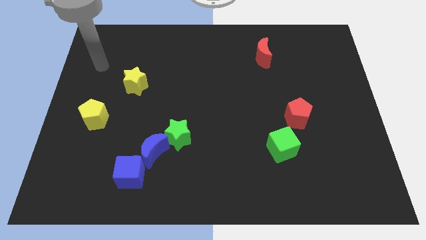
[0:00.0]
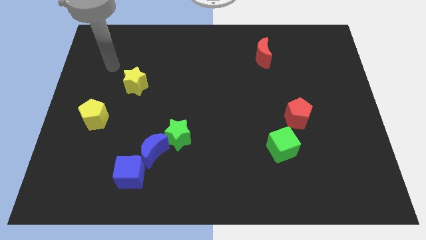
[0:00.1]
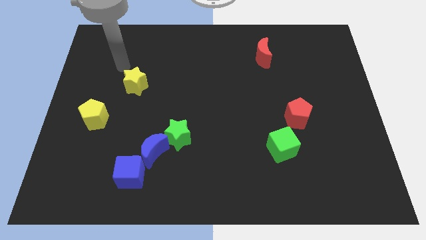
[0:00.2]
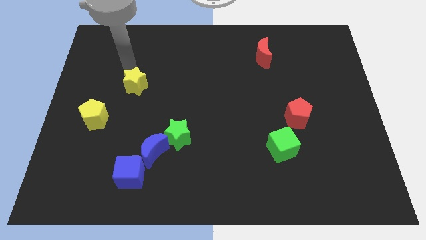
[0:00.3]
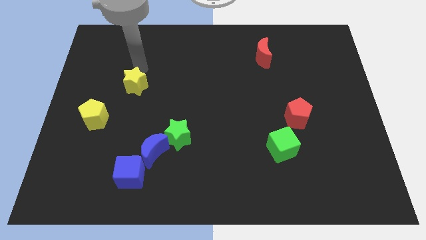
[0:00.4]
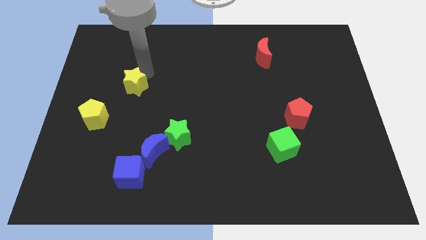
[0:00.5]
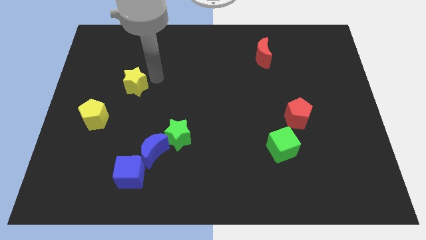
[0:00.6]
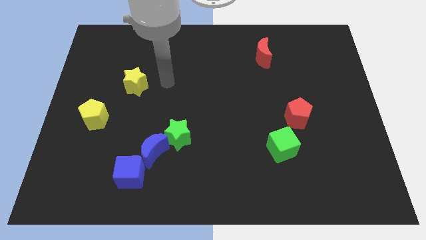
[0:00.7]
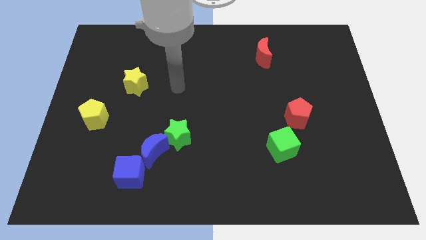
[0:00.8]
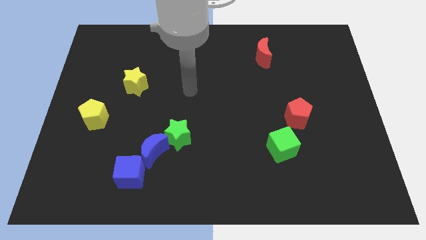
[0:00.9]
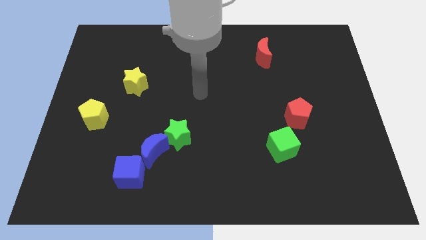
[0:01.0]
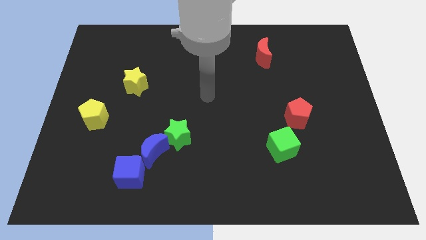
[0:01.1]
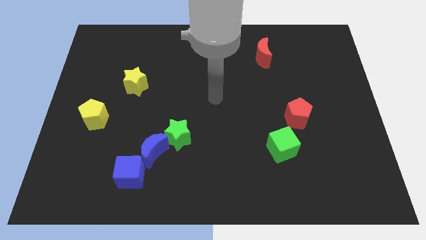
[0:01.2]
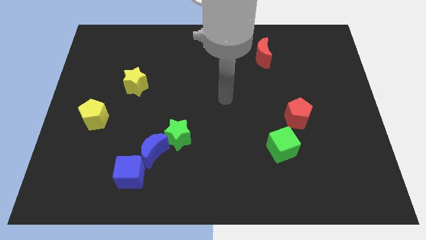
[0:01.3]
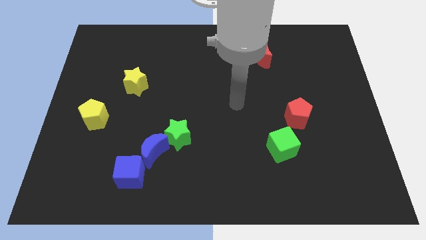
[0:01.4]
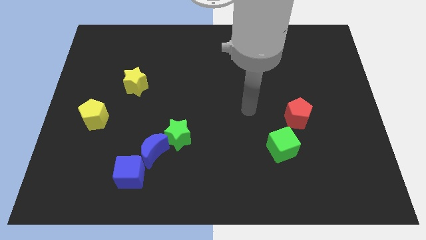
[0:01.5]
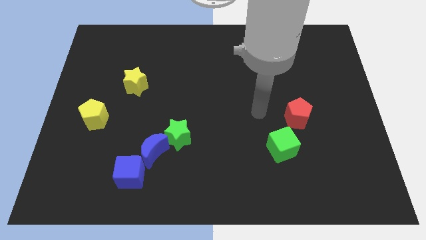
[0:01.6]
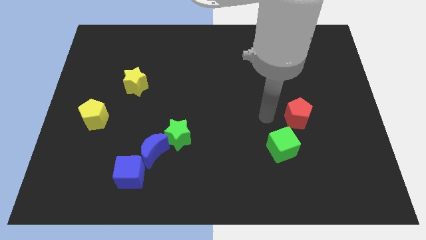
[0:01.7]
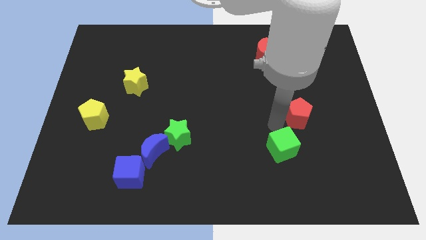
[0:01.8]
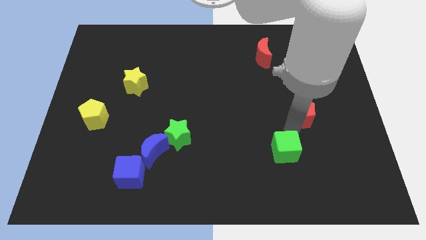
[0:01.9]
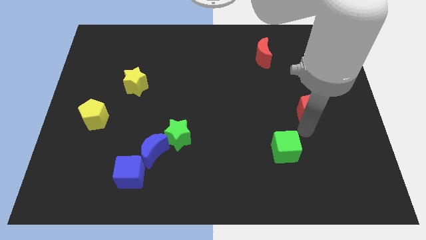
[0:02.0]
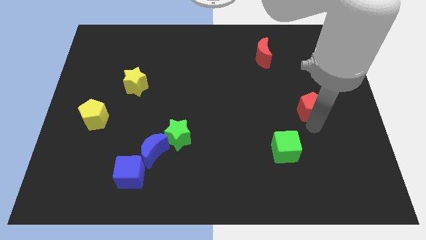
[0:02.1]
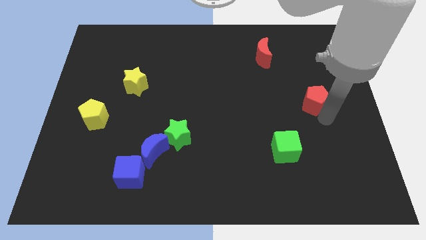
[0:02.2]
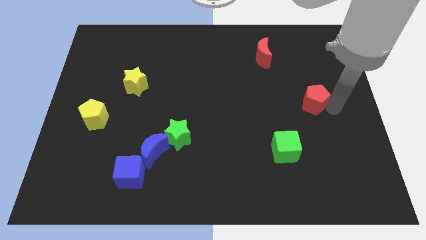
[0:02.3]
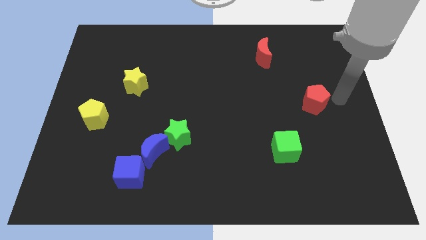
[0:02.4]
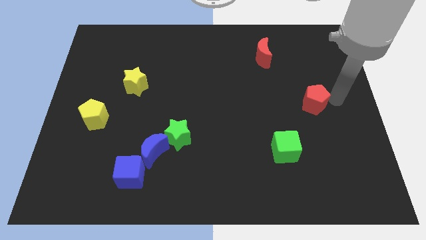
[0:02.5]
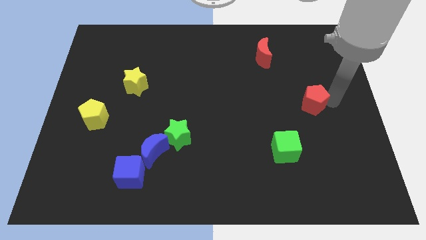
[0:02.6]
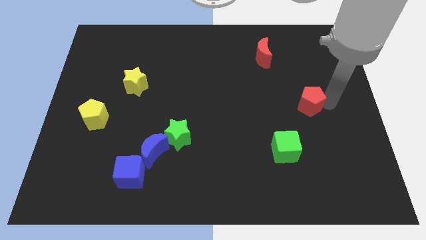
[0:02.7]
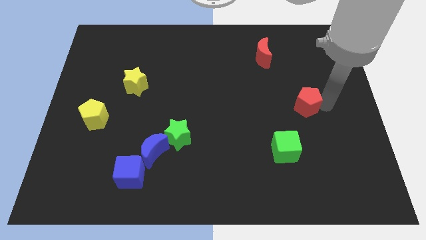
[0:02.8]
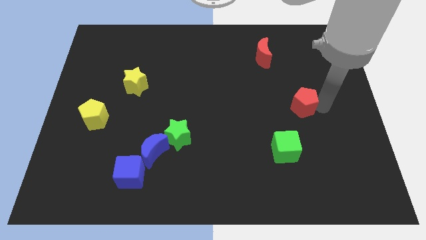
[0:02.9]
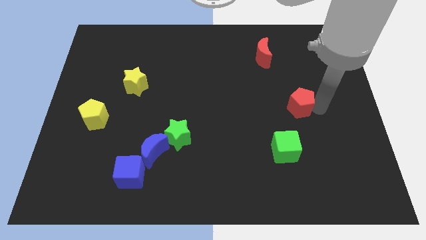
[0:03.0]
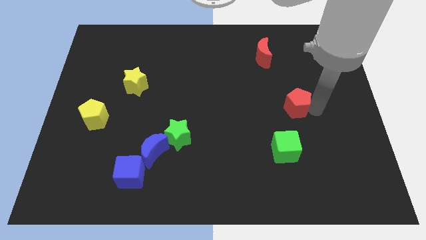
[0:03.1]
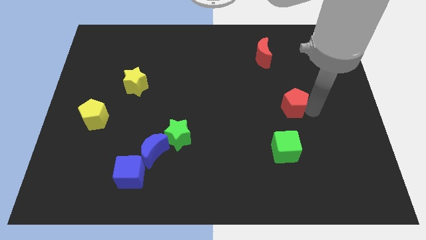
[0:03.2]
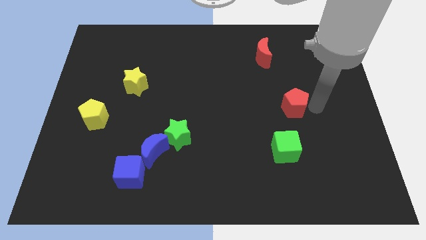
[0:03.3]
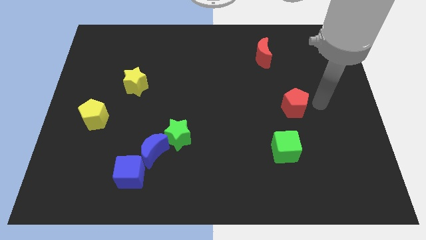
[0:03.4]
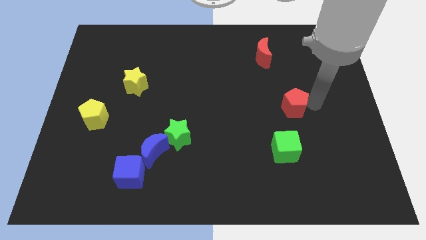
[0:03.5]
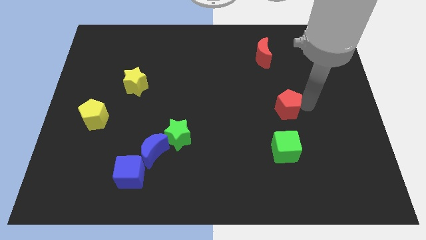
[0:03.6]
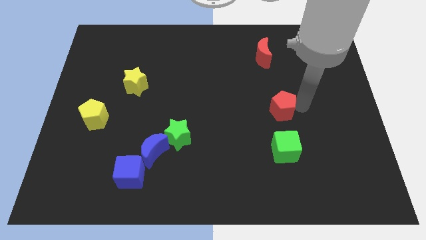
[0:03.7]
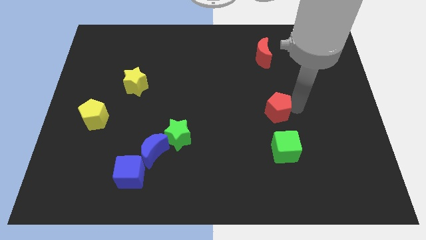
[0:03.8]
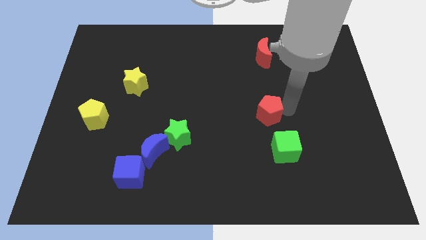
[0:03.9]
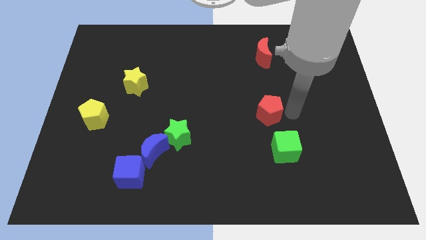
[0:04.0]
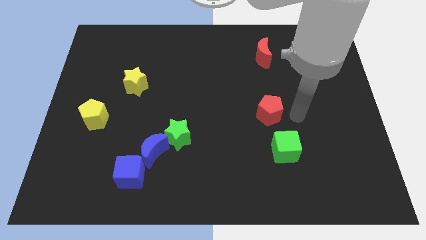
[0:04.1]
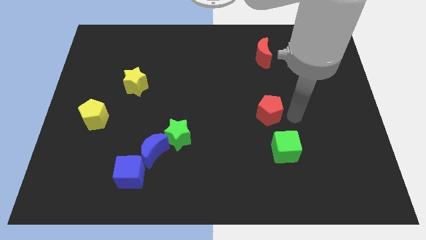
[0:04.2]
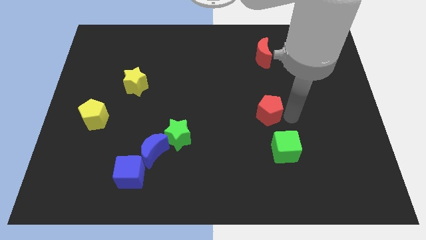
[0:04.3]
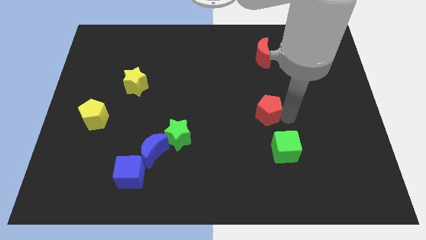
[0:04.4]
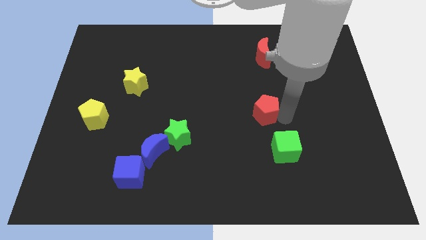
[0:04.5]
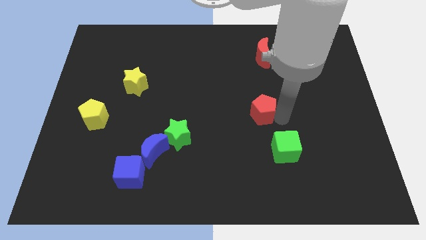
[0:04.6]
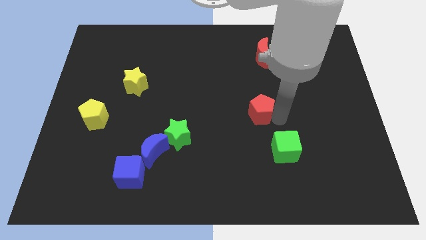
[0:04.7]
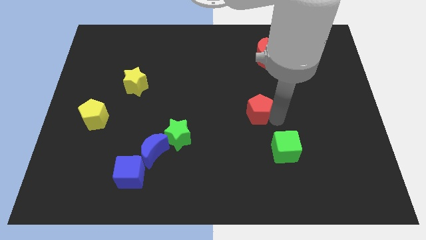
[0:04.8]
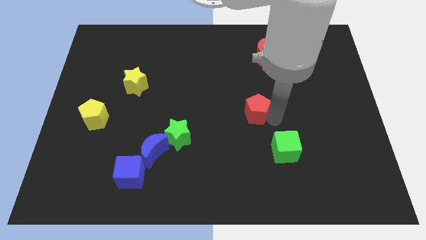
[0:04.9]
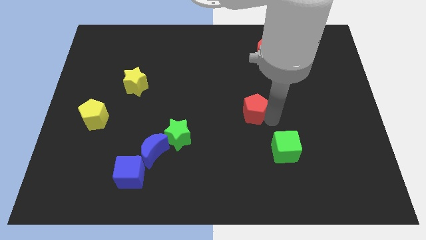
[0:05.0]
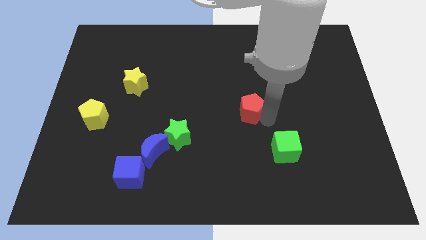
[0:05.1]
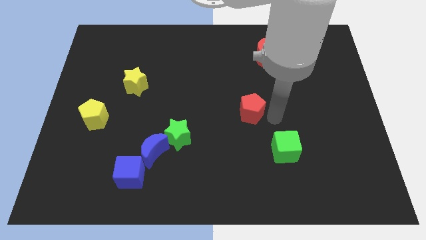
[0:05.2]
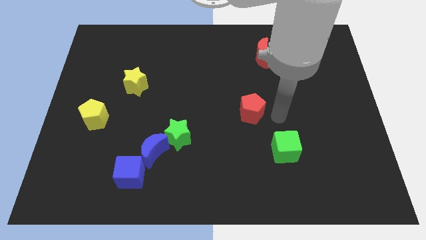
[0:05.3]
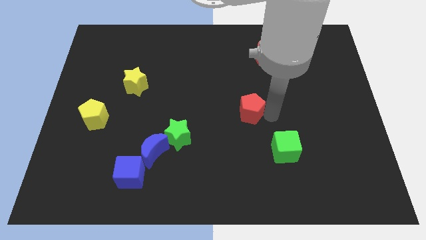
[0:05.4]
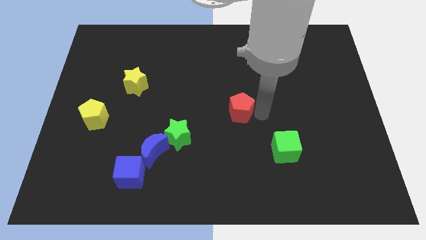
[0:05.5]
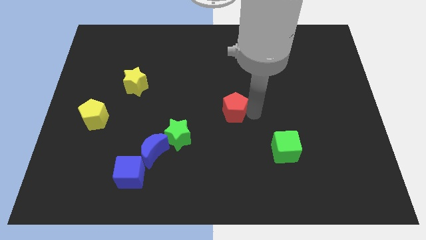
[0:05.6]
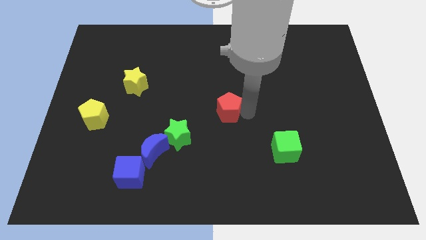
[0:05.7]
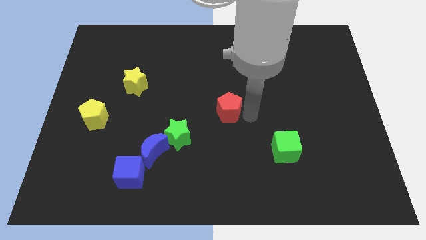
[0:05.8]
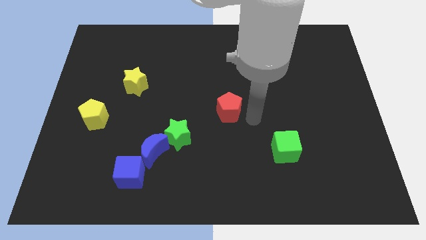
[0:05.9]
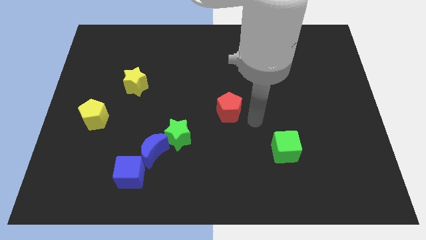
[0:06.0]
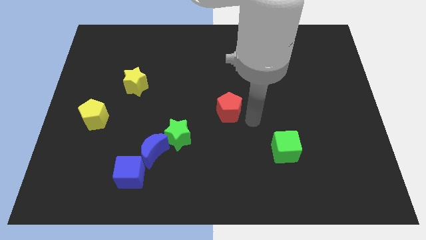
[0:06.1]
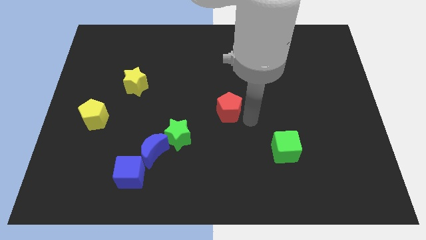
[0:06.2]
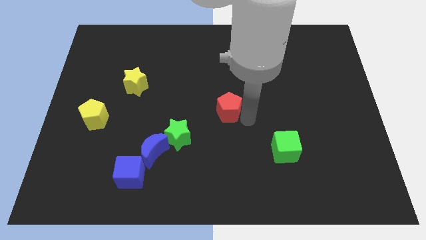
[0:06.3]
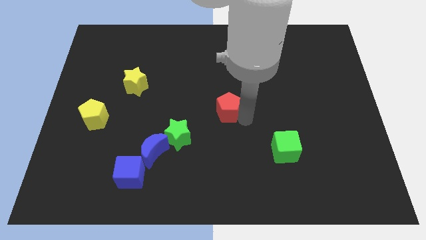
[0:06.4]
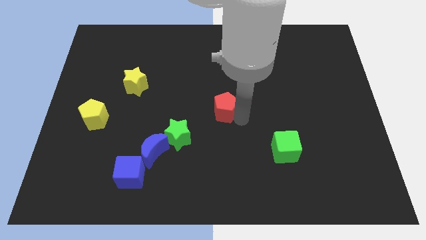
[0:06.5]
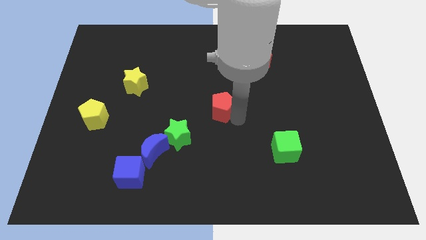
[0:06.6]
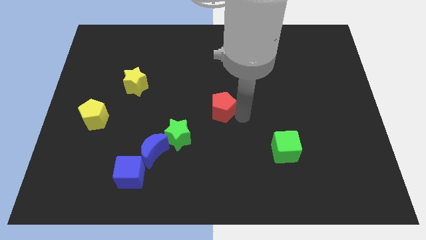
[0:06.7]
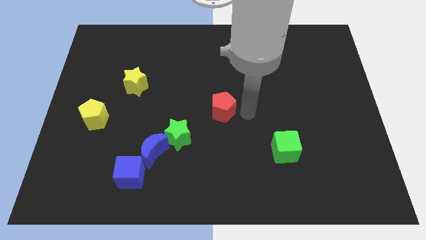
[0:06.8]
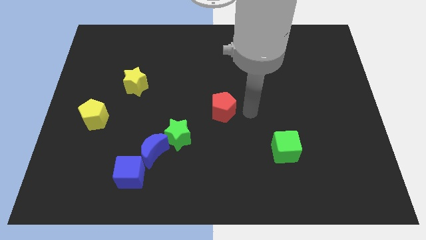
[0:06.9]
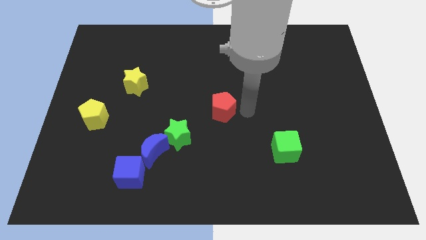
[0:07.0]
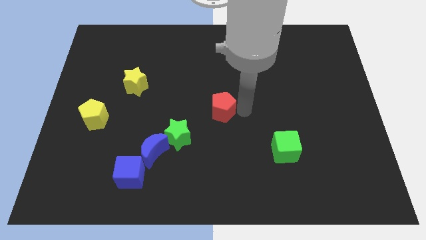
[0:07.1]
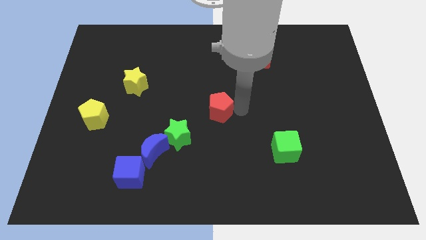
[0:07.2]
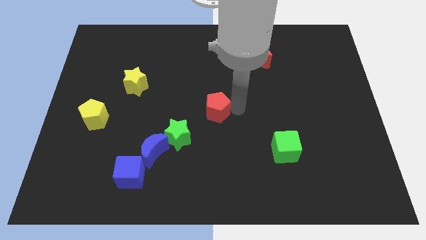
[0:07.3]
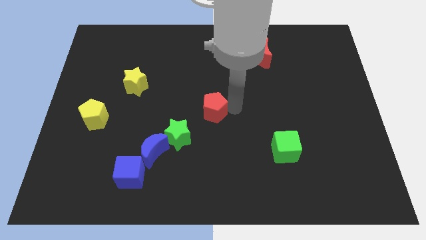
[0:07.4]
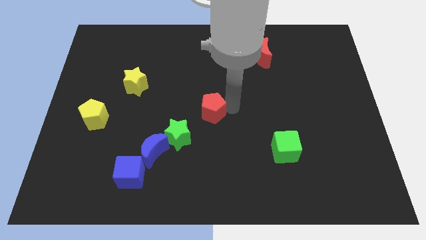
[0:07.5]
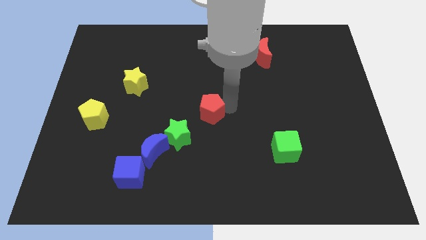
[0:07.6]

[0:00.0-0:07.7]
push the red pentagon to the left

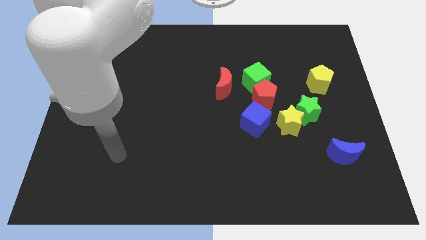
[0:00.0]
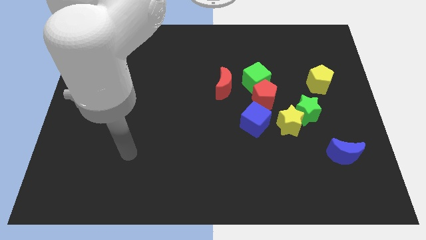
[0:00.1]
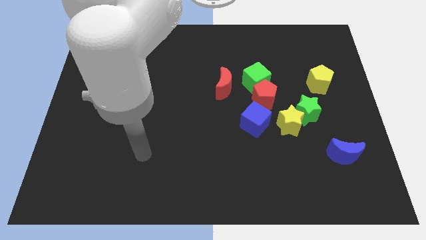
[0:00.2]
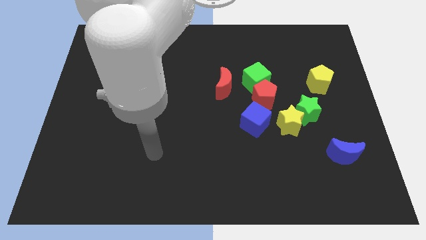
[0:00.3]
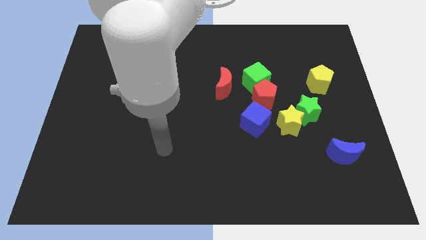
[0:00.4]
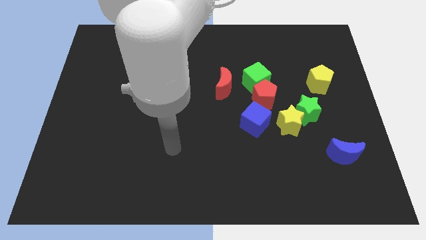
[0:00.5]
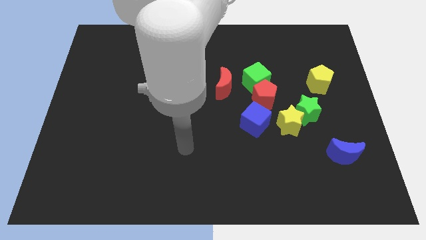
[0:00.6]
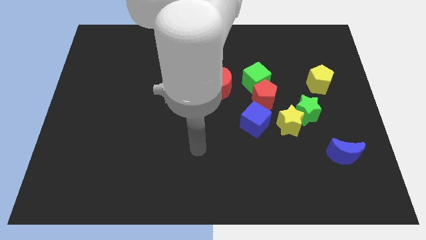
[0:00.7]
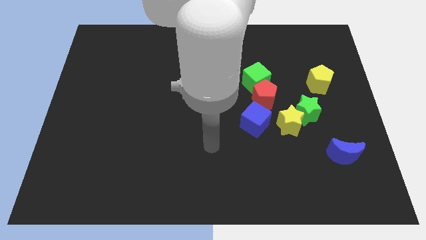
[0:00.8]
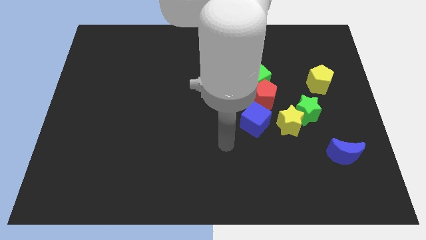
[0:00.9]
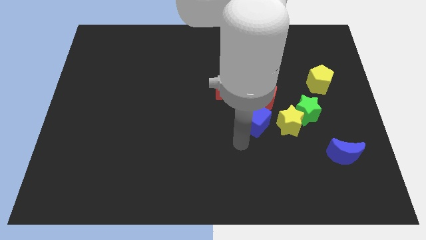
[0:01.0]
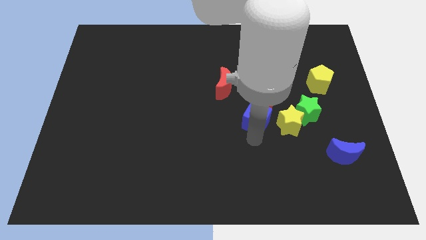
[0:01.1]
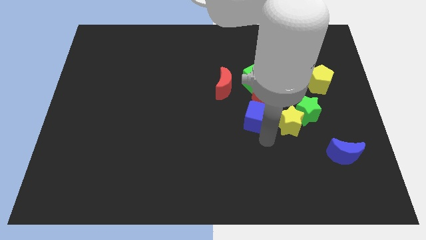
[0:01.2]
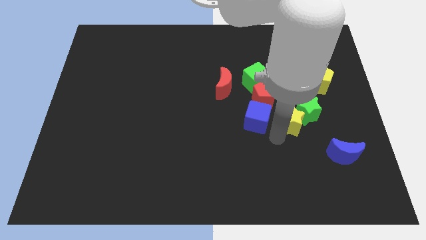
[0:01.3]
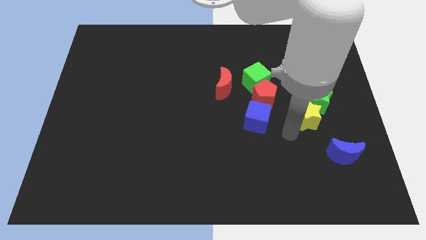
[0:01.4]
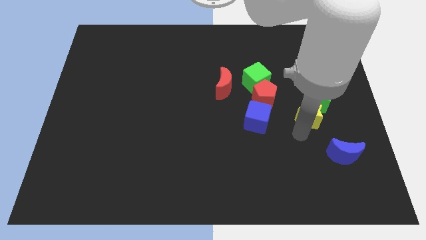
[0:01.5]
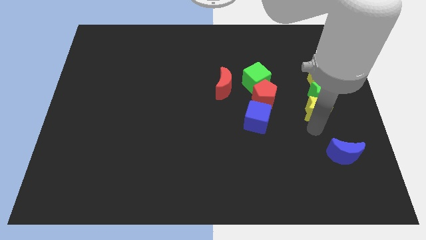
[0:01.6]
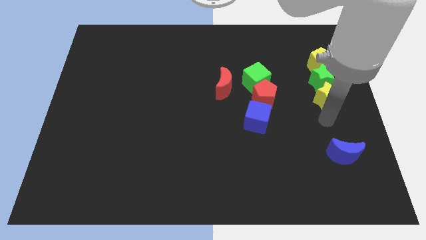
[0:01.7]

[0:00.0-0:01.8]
slightly move the green star up
